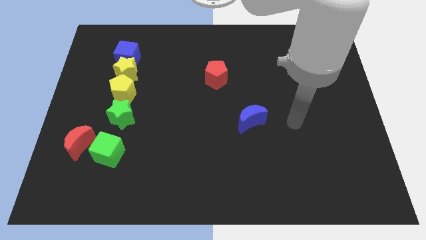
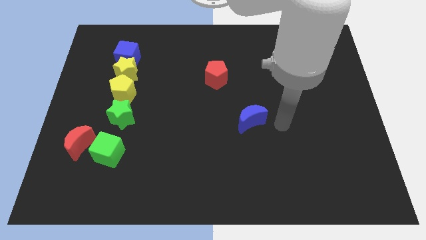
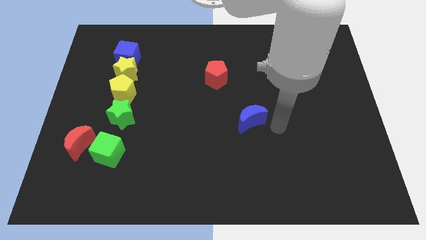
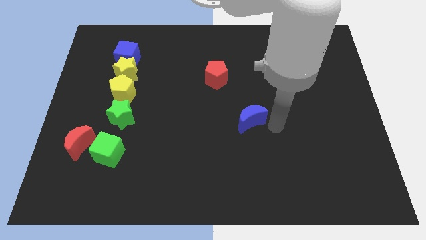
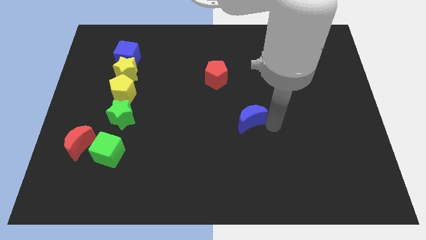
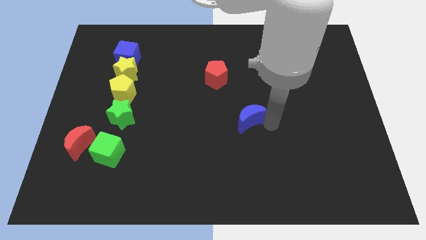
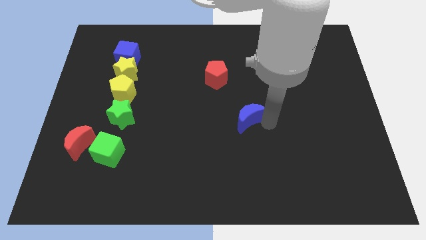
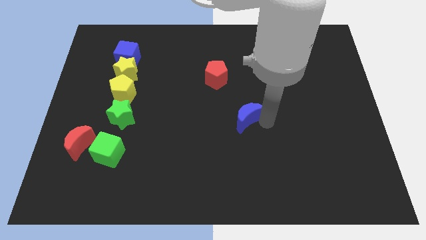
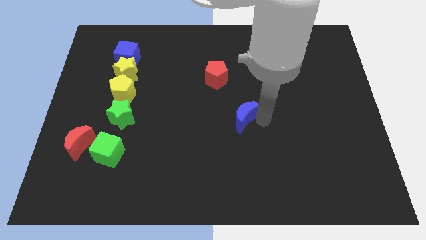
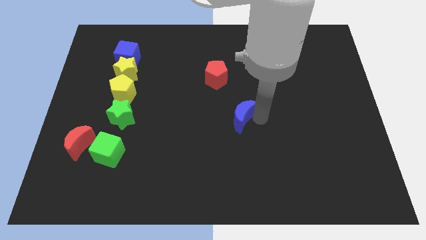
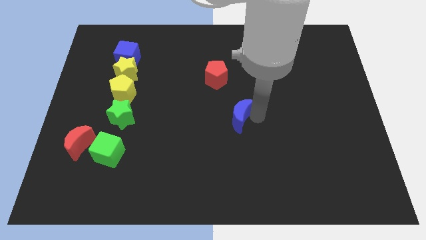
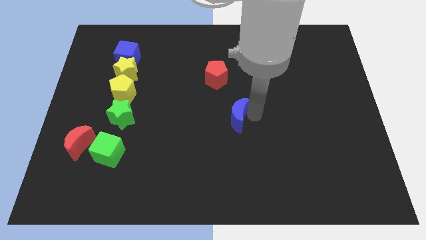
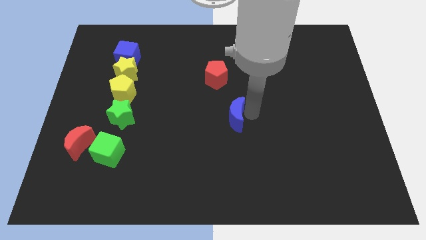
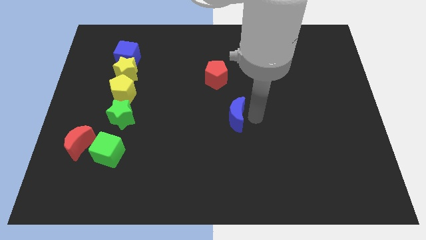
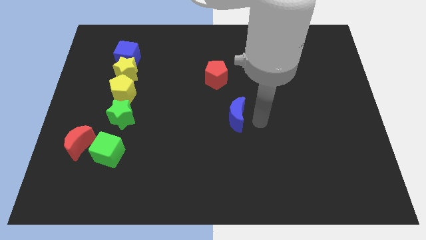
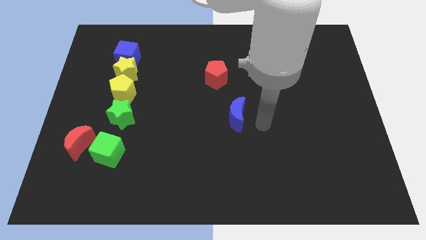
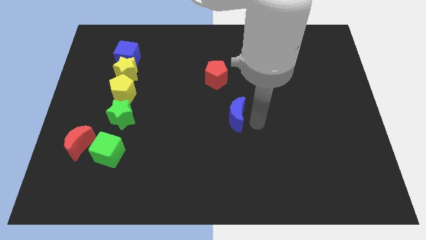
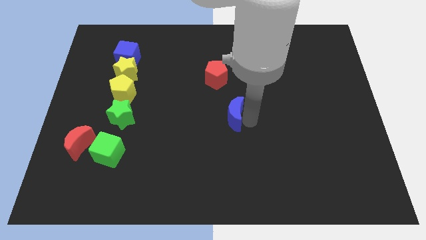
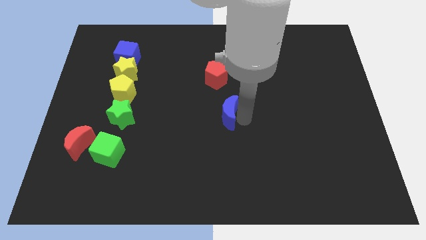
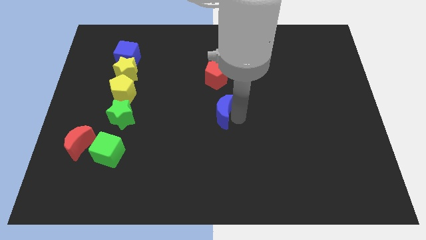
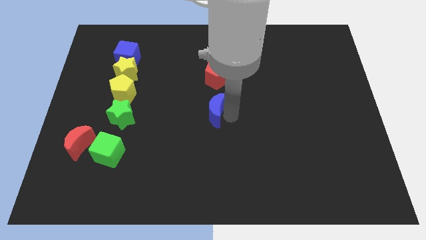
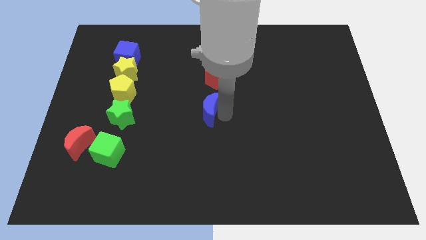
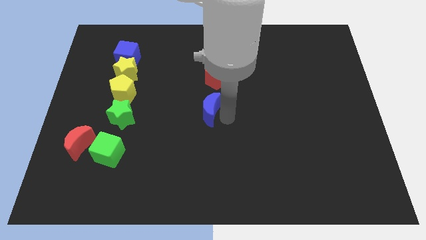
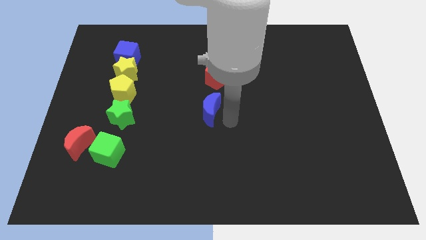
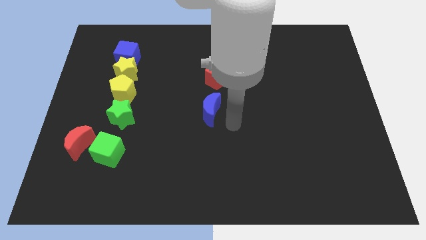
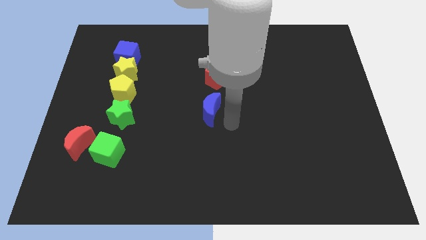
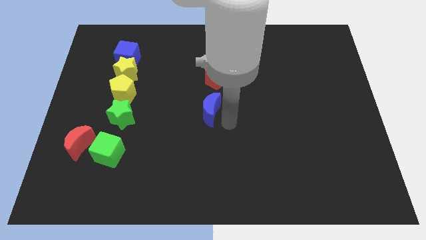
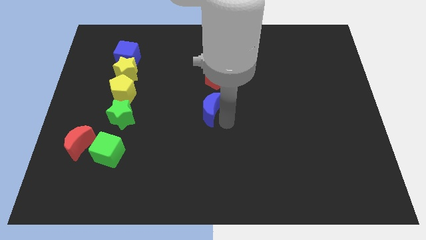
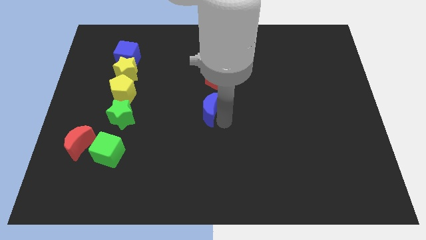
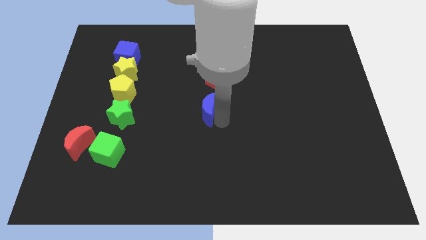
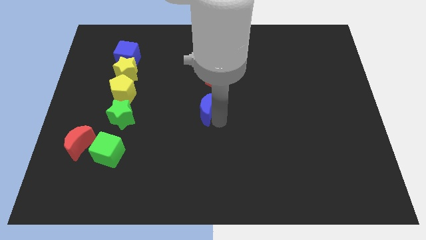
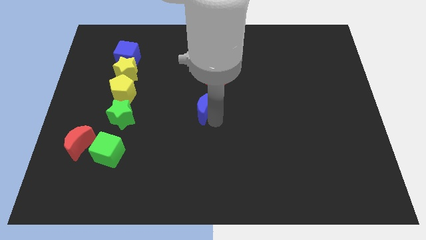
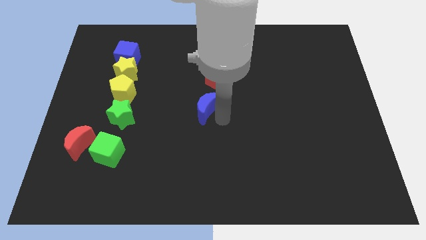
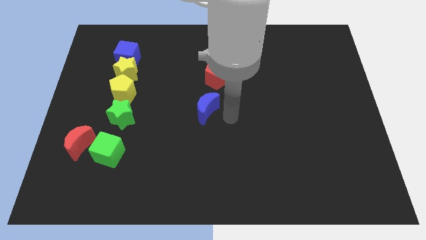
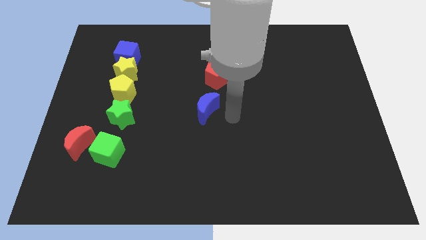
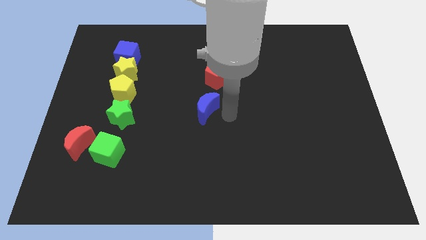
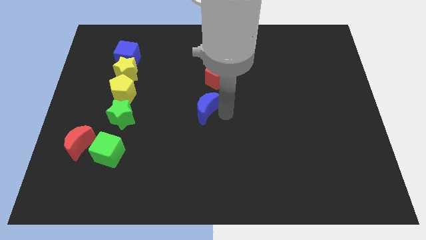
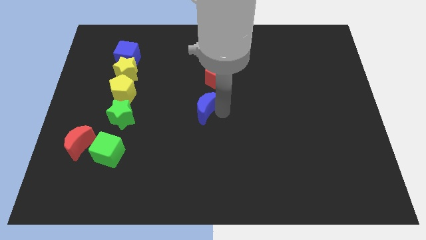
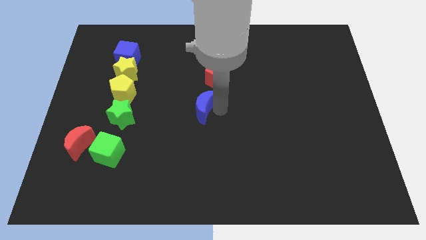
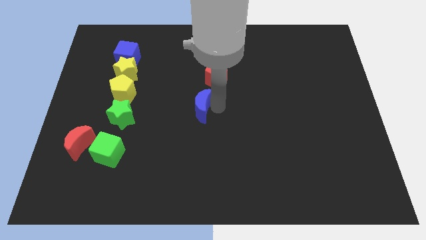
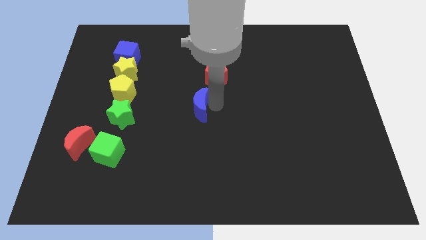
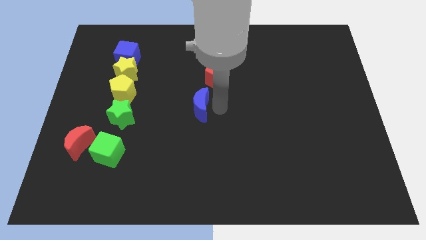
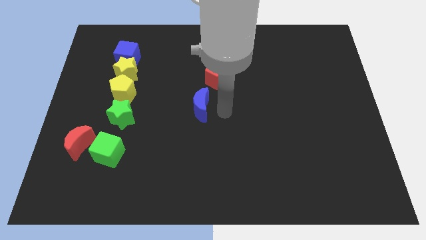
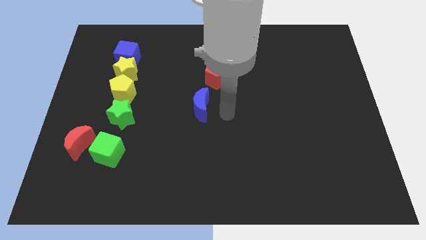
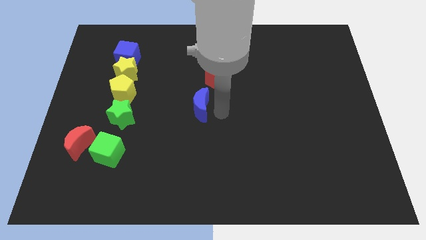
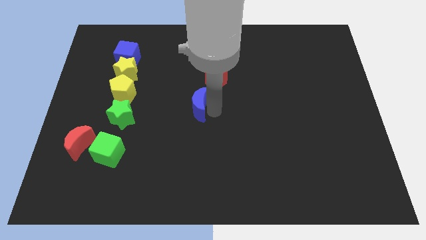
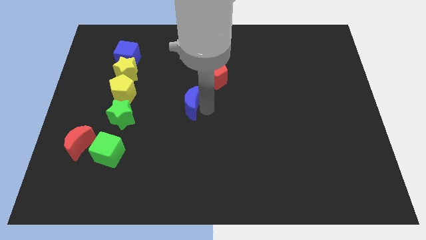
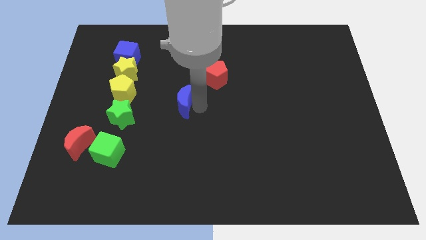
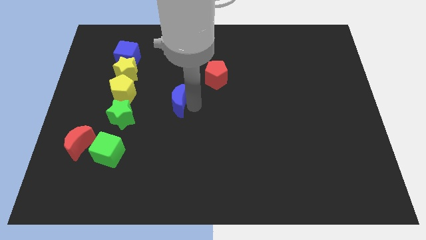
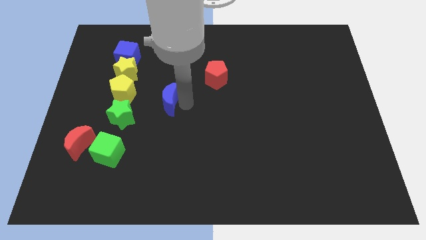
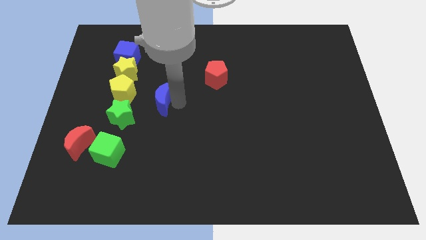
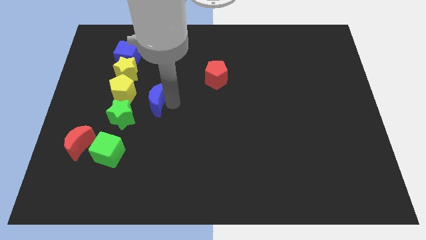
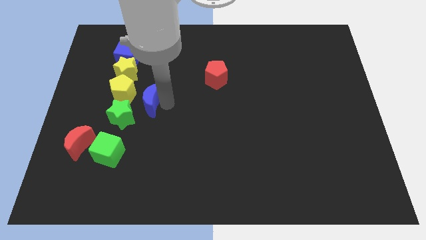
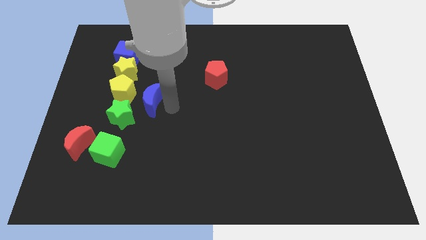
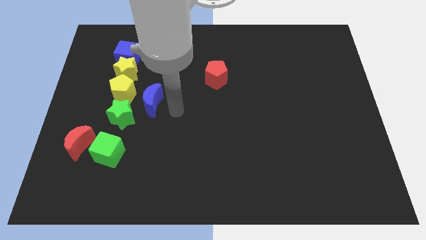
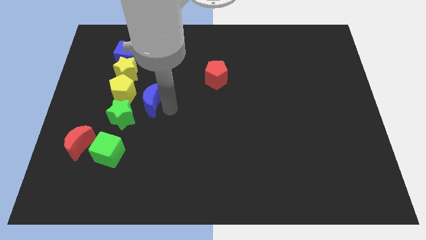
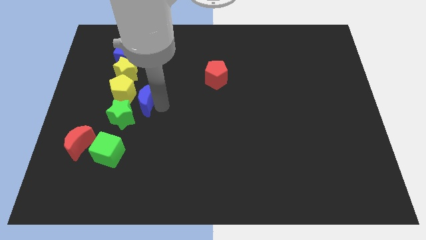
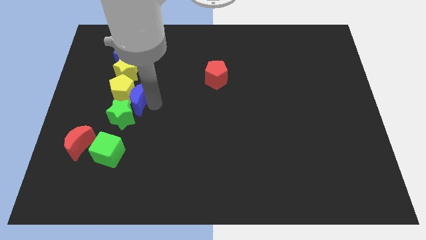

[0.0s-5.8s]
put the blue moon next to the yellow pentagon

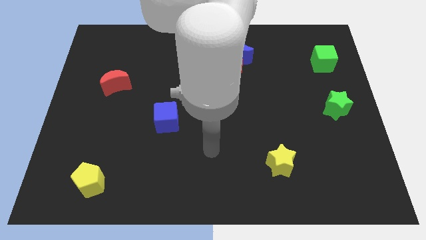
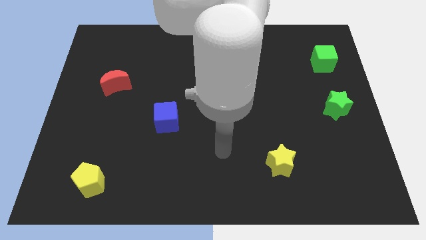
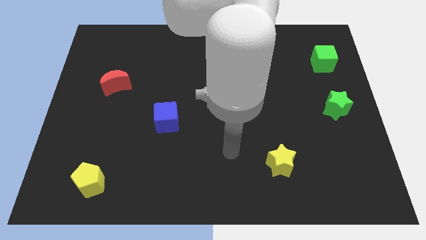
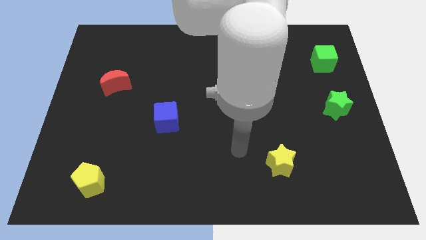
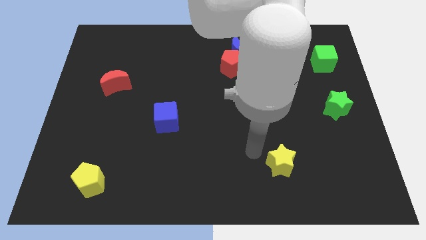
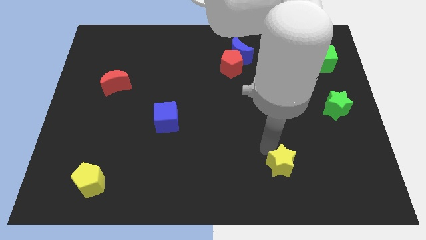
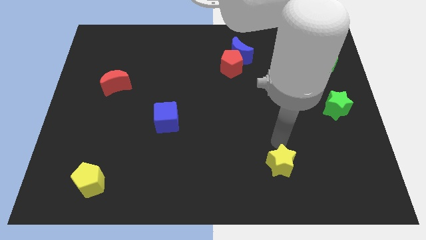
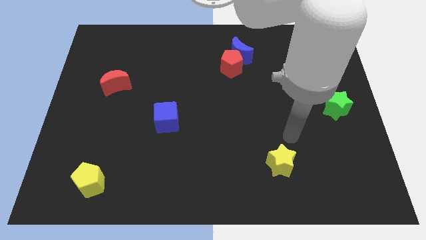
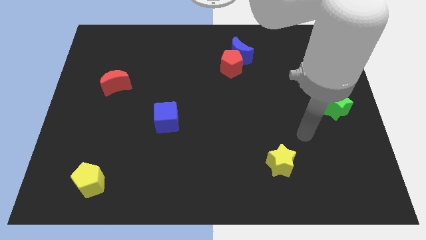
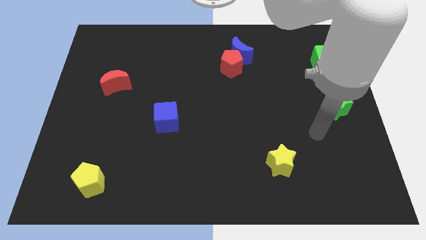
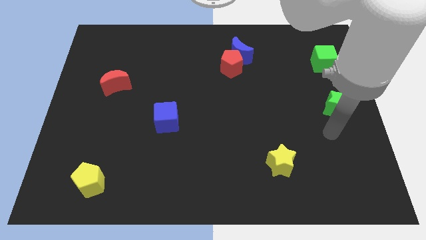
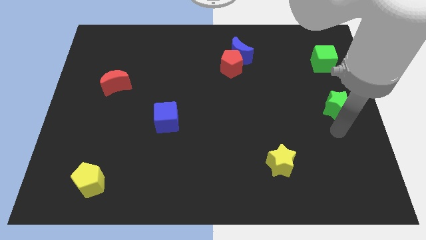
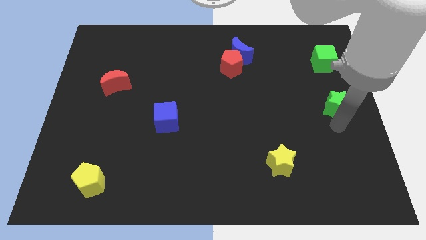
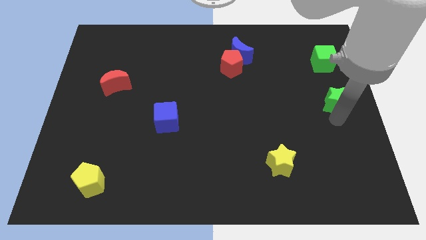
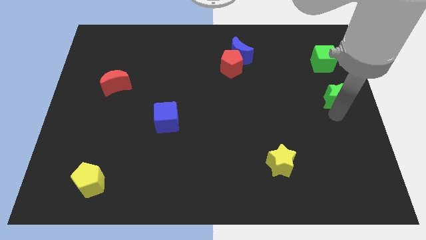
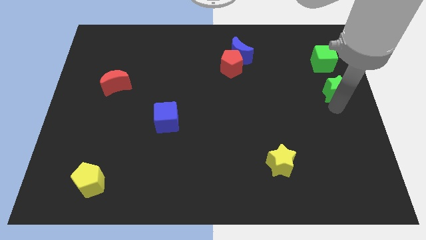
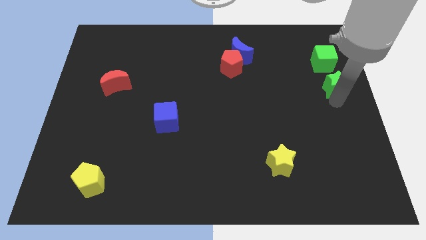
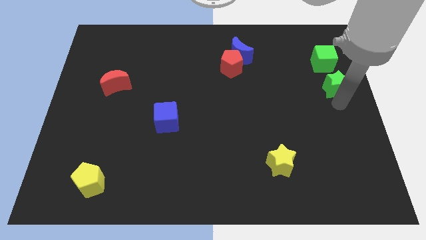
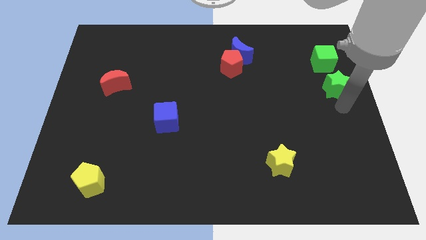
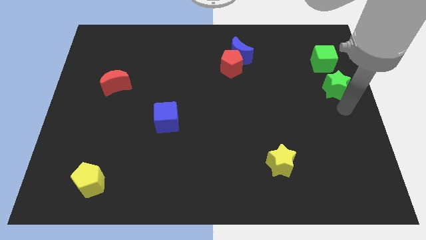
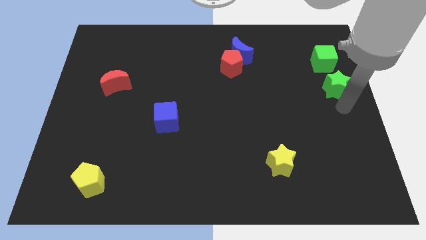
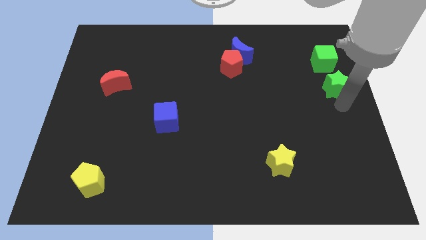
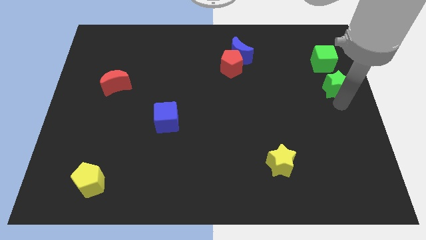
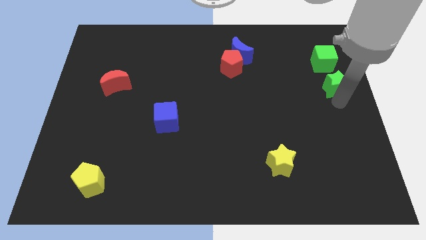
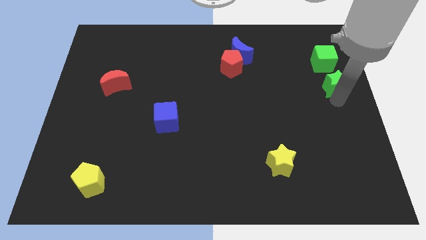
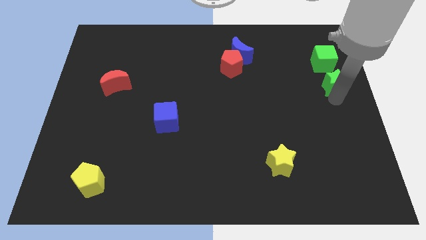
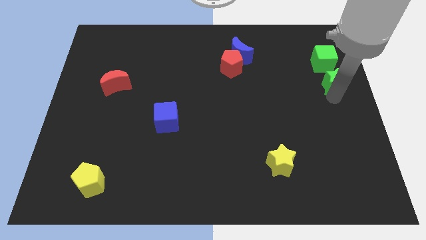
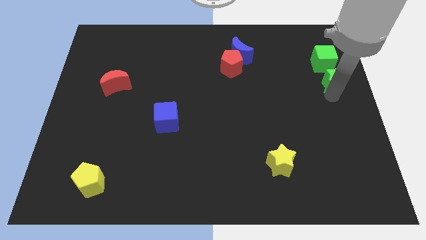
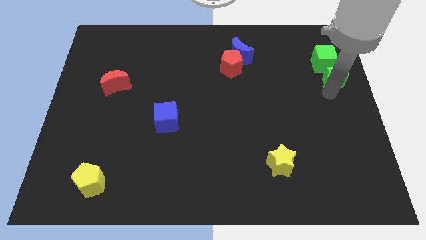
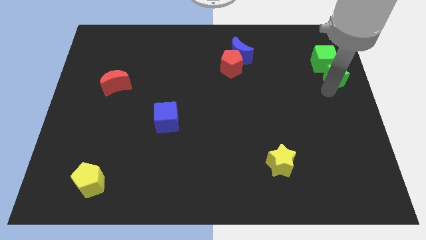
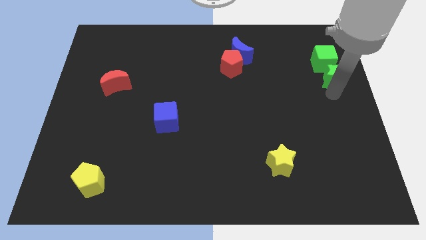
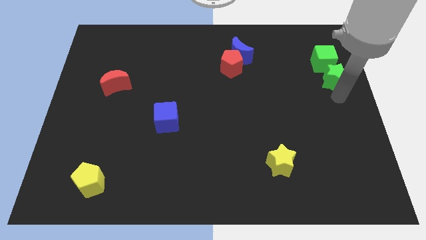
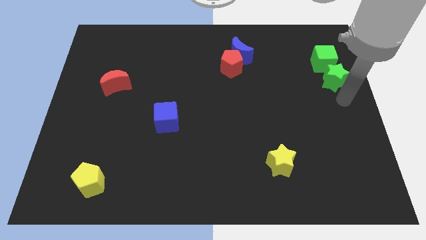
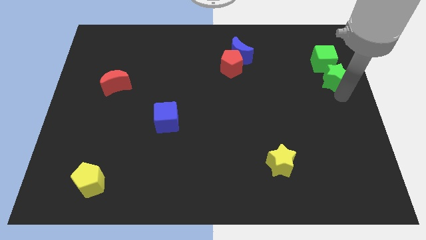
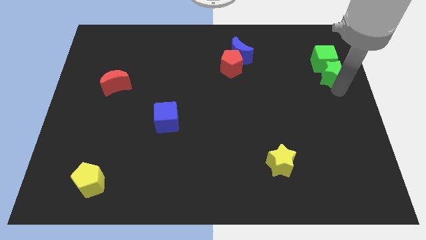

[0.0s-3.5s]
put the green star to the green cube
